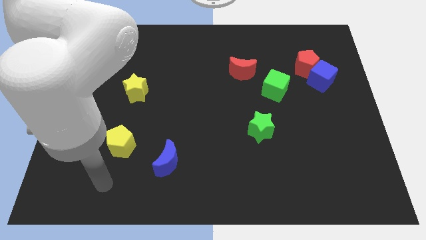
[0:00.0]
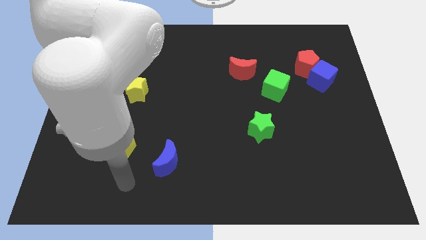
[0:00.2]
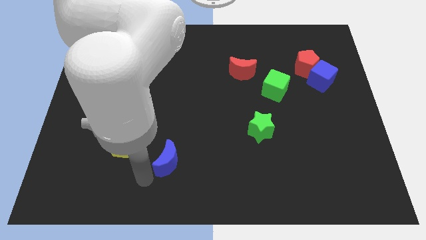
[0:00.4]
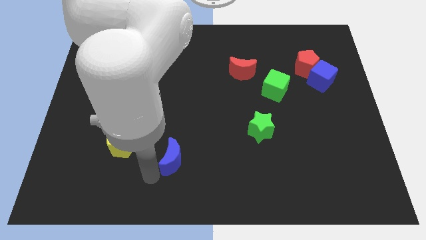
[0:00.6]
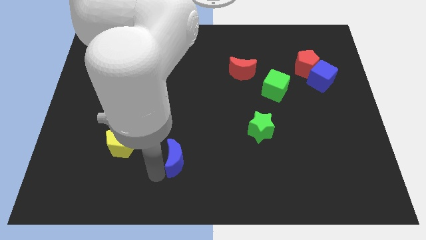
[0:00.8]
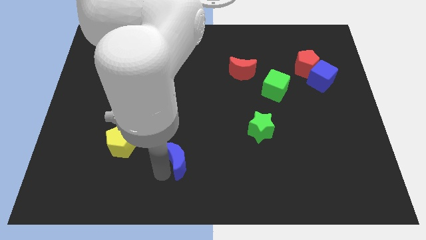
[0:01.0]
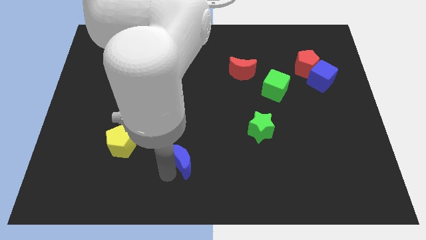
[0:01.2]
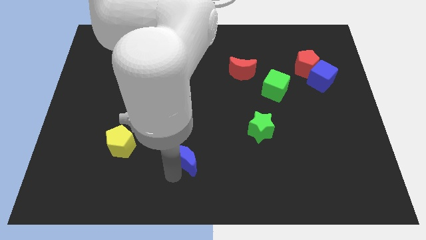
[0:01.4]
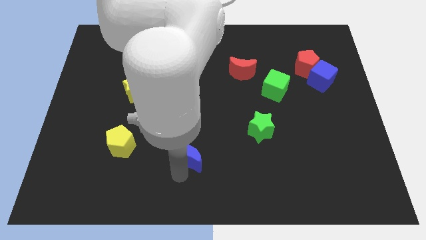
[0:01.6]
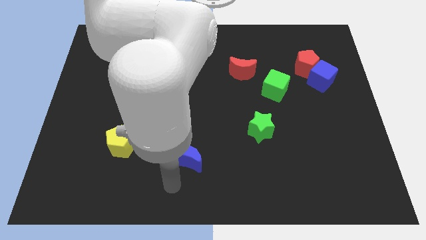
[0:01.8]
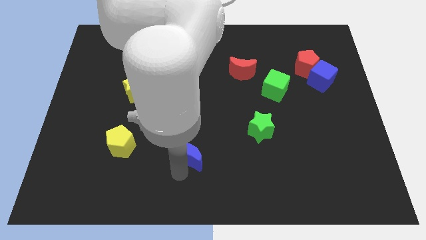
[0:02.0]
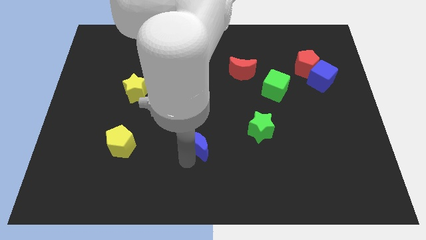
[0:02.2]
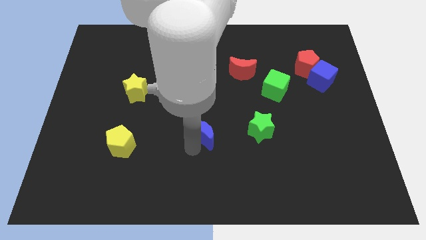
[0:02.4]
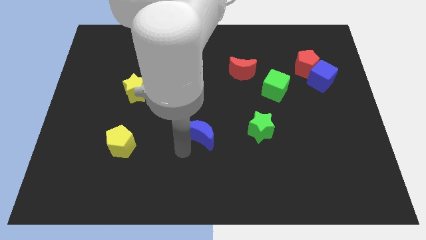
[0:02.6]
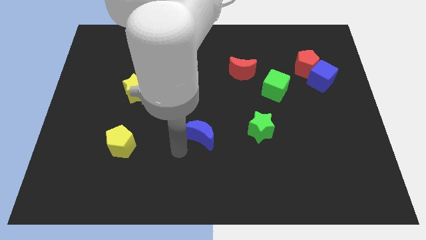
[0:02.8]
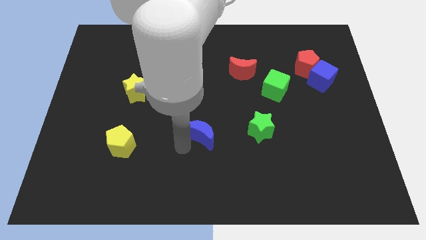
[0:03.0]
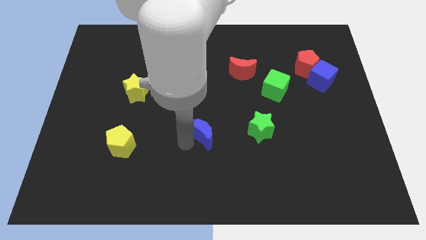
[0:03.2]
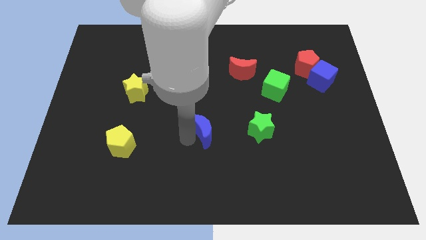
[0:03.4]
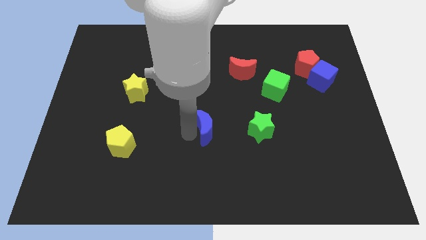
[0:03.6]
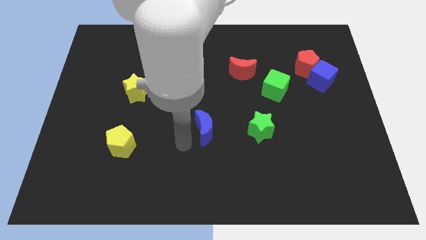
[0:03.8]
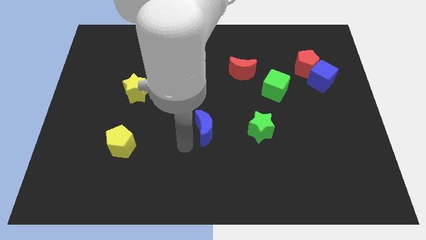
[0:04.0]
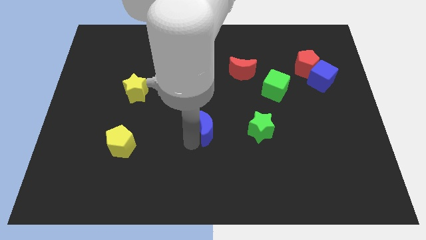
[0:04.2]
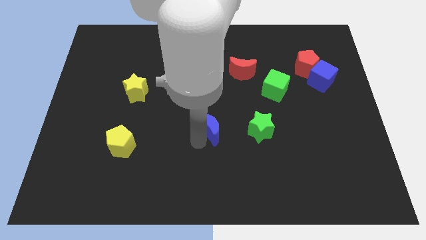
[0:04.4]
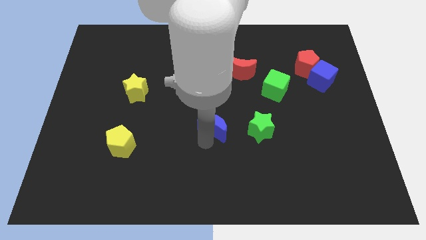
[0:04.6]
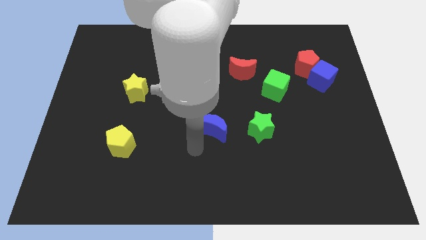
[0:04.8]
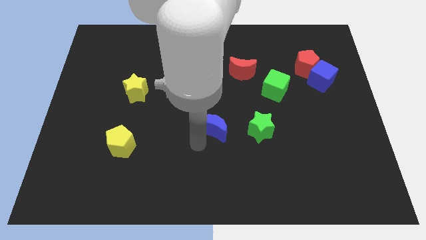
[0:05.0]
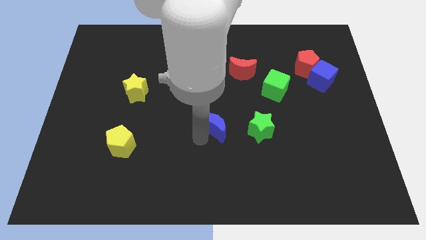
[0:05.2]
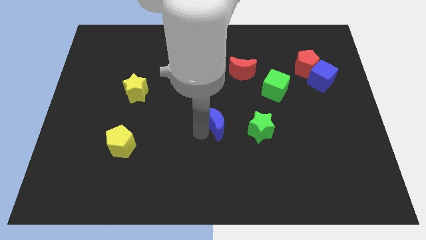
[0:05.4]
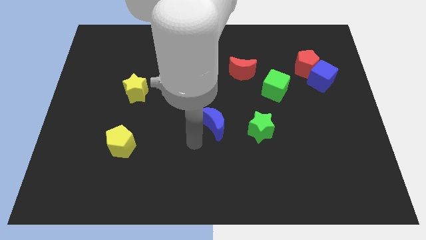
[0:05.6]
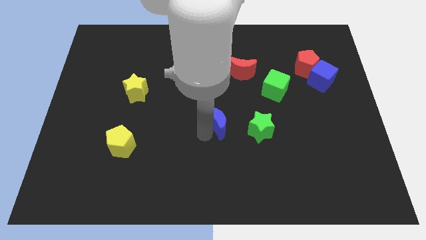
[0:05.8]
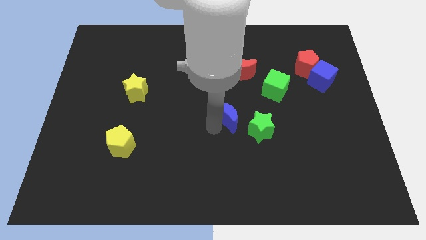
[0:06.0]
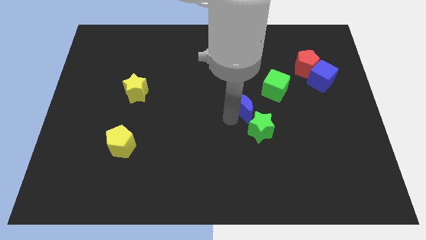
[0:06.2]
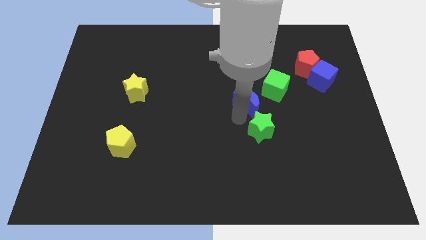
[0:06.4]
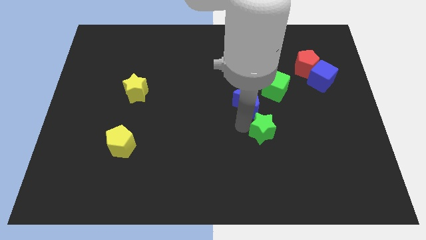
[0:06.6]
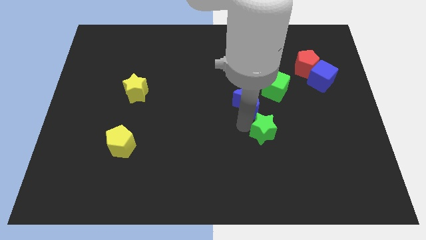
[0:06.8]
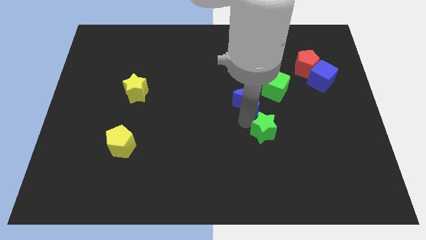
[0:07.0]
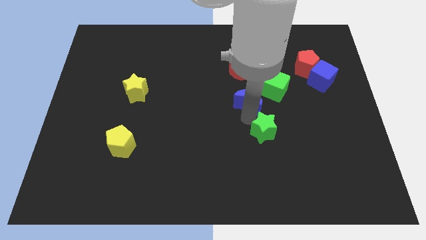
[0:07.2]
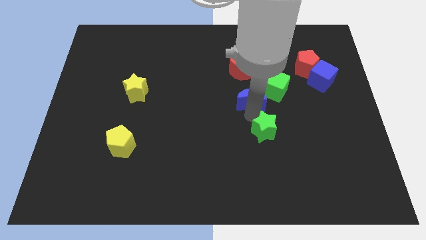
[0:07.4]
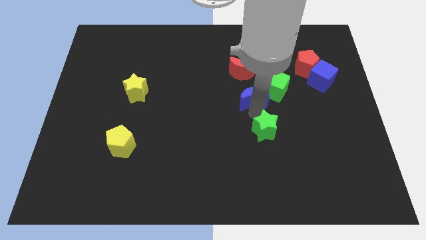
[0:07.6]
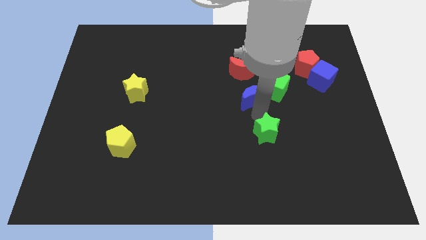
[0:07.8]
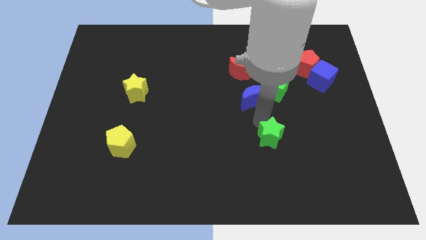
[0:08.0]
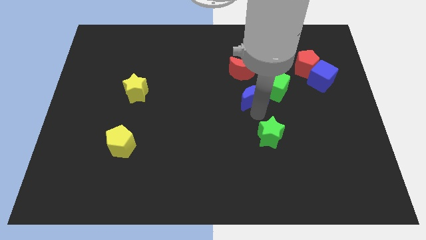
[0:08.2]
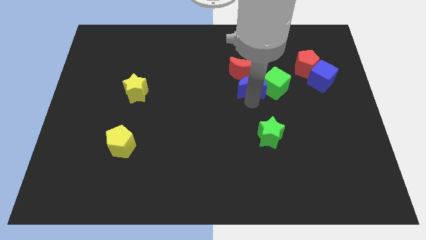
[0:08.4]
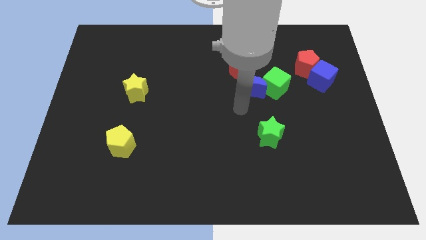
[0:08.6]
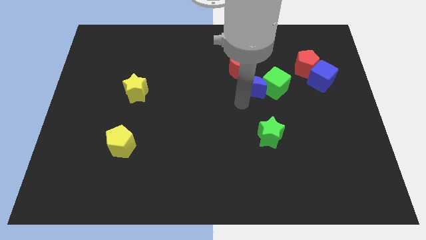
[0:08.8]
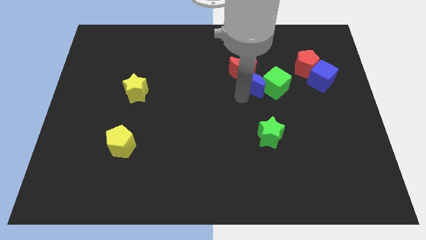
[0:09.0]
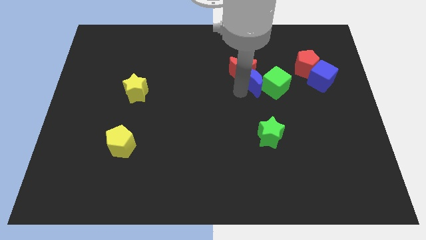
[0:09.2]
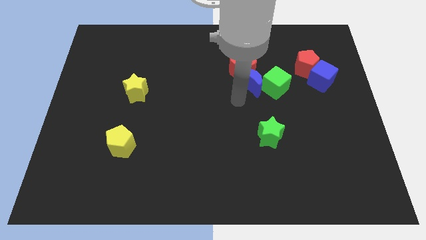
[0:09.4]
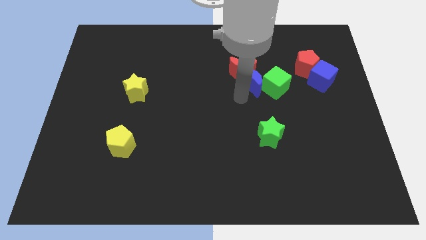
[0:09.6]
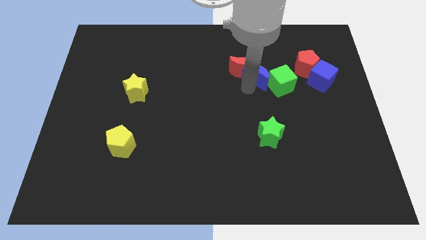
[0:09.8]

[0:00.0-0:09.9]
push the blue moon just left of the red pentagon

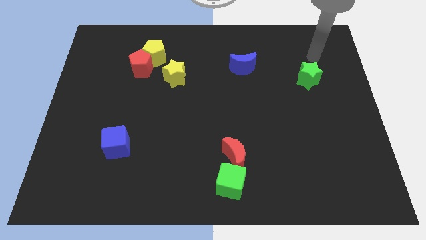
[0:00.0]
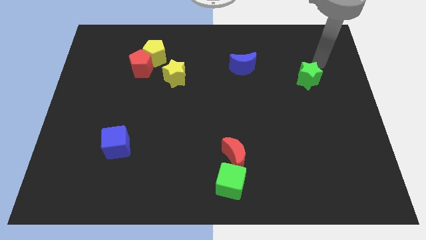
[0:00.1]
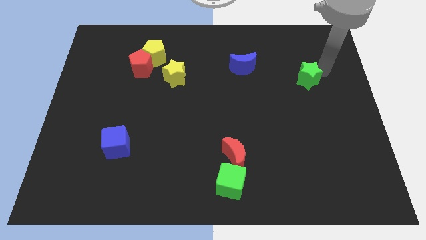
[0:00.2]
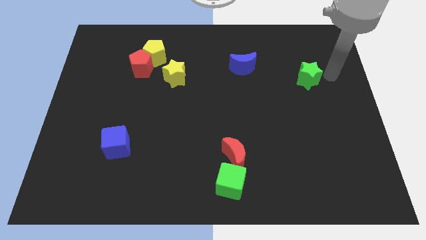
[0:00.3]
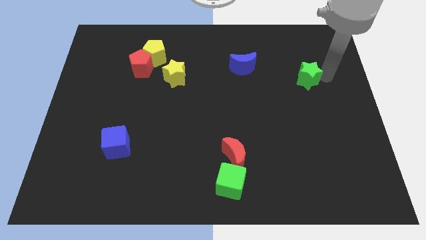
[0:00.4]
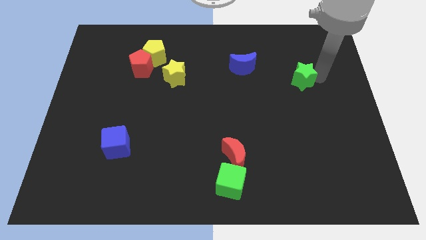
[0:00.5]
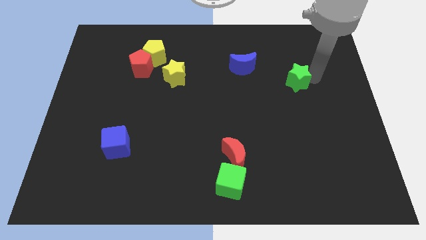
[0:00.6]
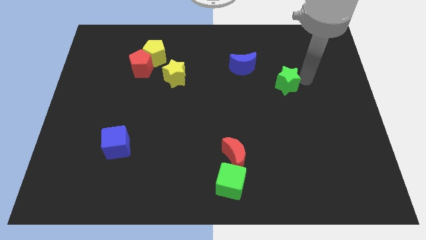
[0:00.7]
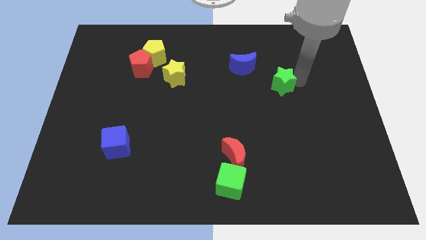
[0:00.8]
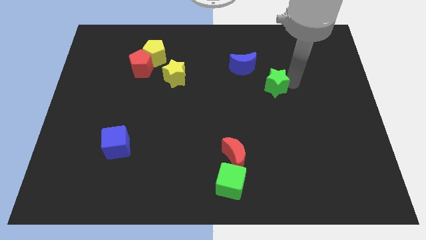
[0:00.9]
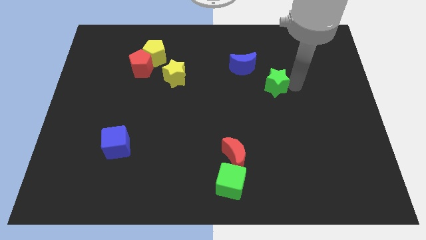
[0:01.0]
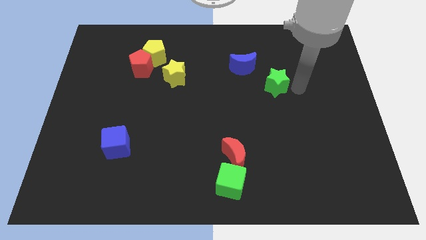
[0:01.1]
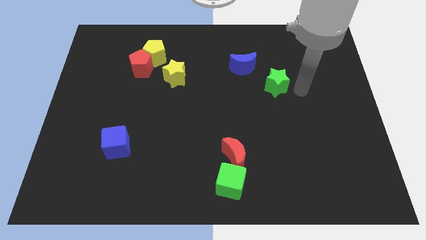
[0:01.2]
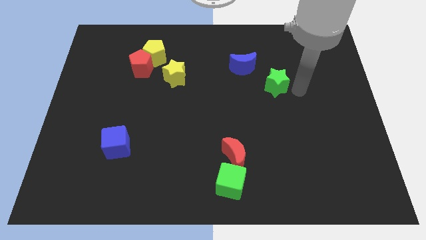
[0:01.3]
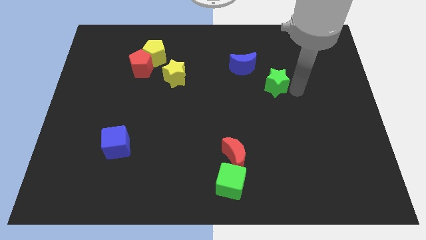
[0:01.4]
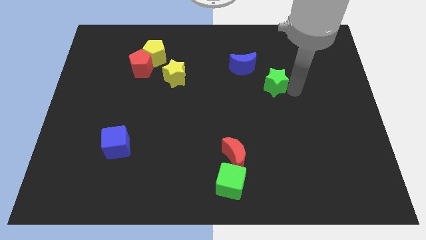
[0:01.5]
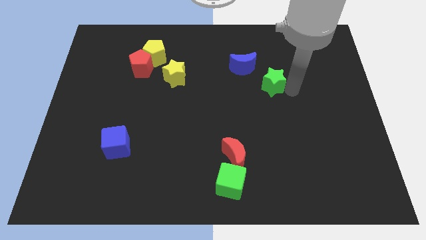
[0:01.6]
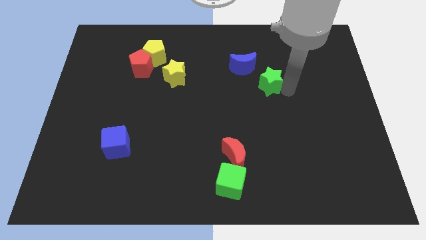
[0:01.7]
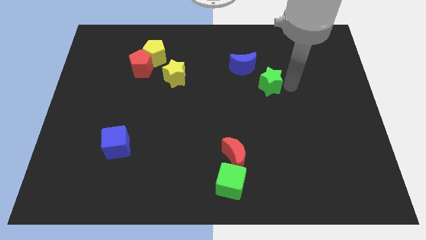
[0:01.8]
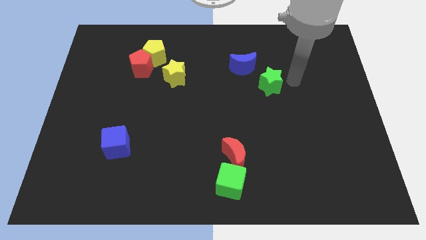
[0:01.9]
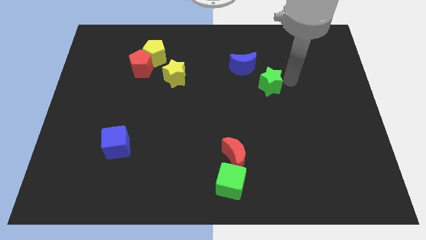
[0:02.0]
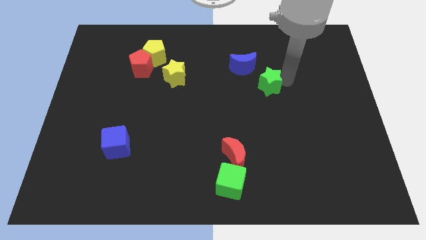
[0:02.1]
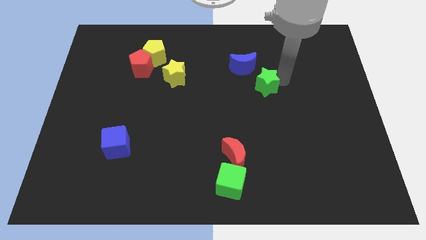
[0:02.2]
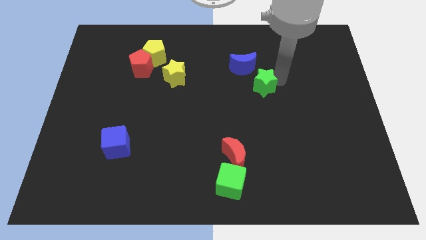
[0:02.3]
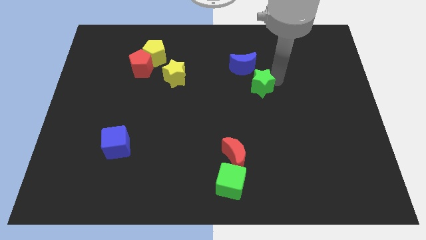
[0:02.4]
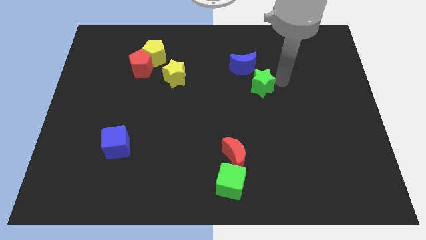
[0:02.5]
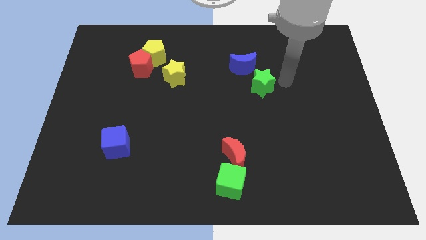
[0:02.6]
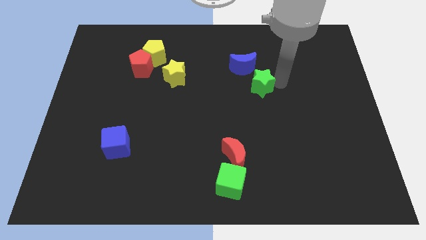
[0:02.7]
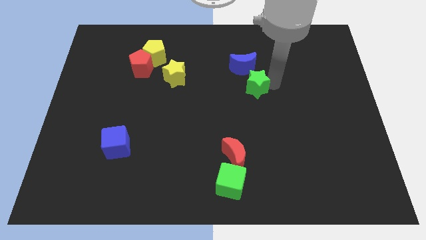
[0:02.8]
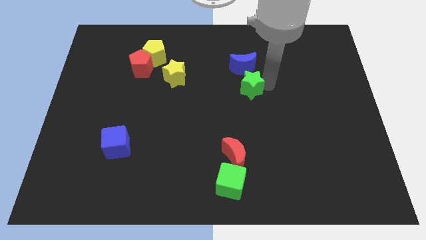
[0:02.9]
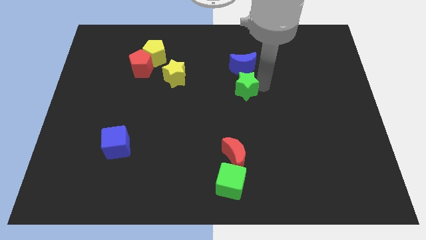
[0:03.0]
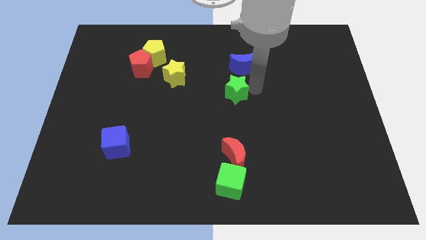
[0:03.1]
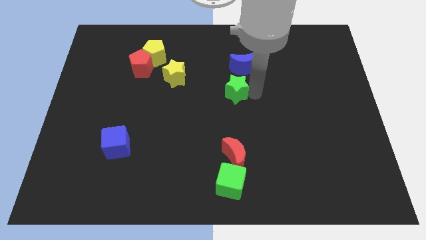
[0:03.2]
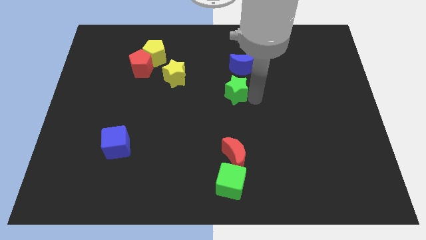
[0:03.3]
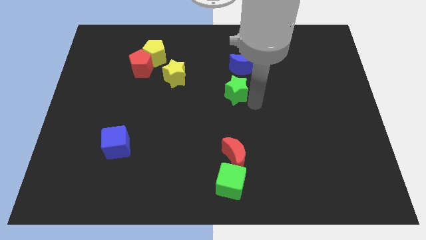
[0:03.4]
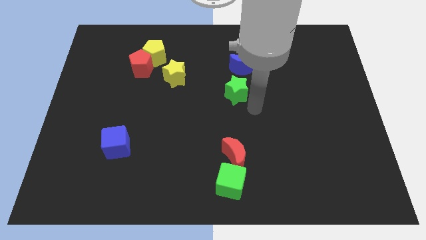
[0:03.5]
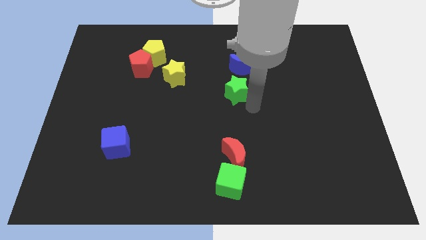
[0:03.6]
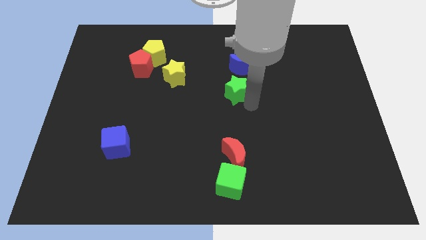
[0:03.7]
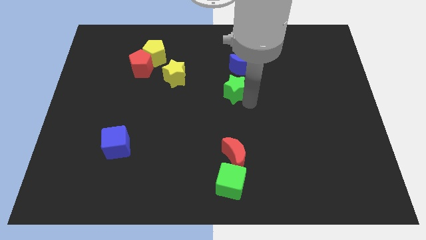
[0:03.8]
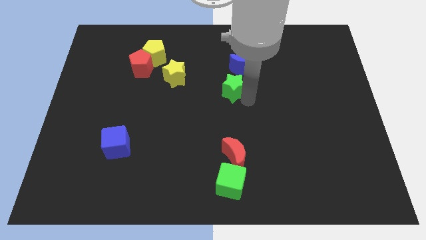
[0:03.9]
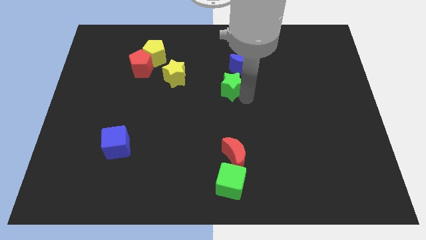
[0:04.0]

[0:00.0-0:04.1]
put the green star to the right side of the yellow star
